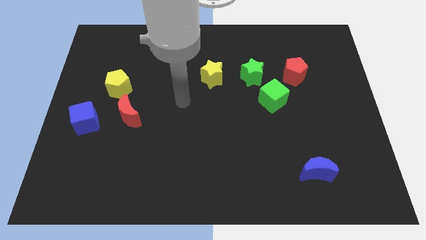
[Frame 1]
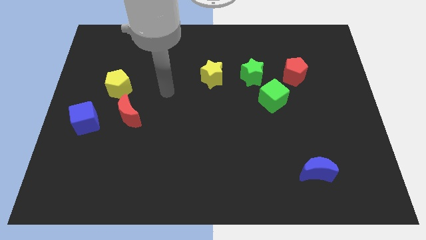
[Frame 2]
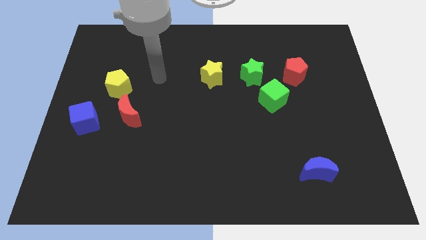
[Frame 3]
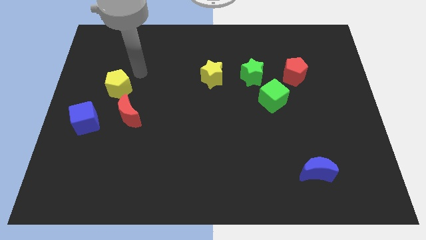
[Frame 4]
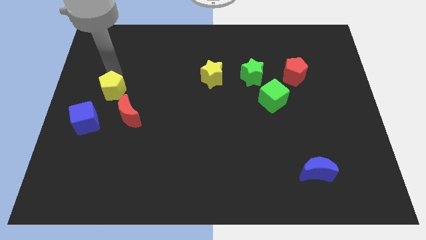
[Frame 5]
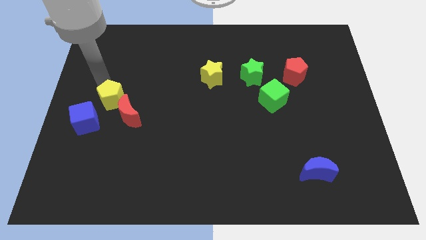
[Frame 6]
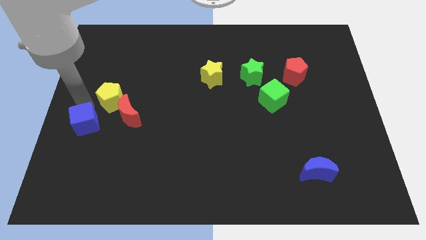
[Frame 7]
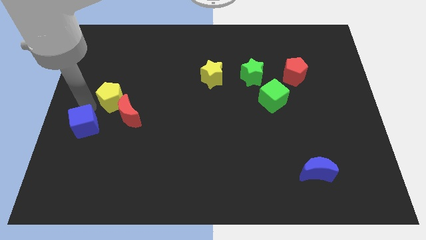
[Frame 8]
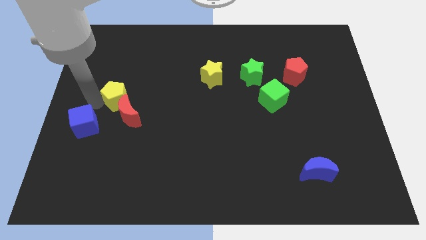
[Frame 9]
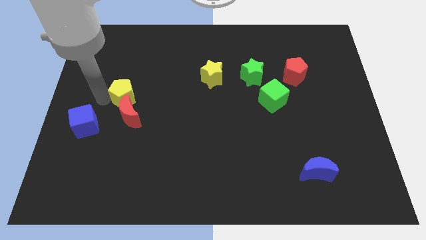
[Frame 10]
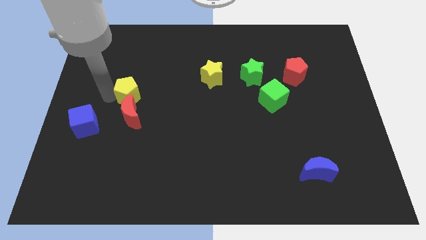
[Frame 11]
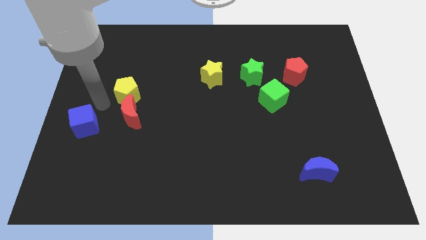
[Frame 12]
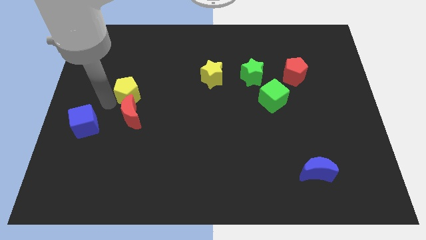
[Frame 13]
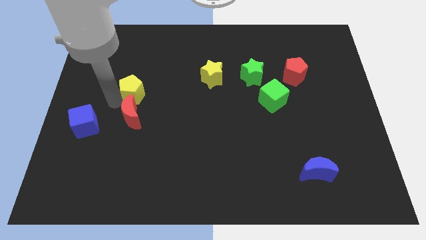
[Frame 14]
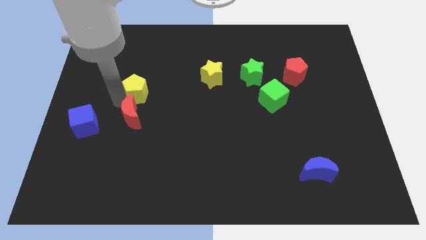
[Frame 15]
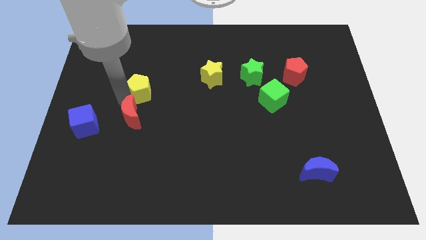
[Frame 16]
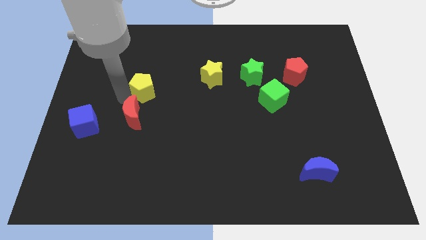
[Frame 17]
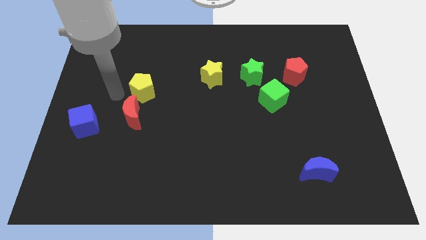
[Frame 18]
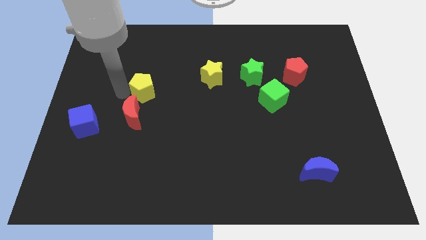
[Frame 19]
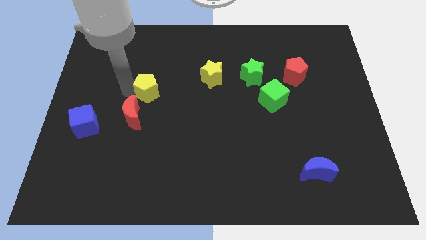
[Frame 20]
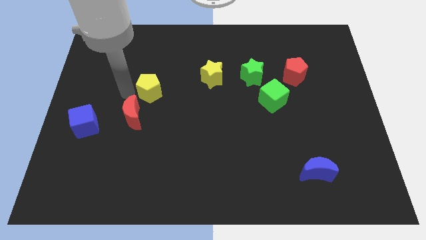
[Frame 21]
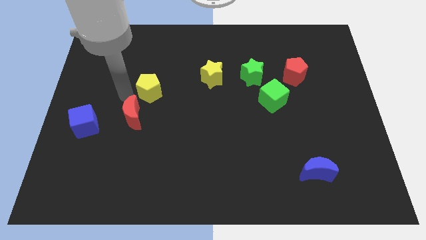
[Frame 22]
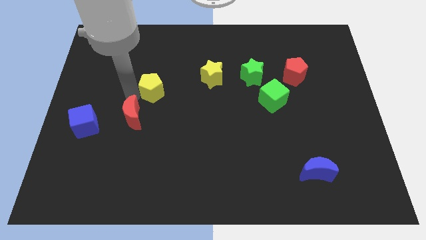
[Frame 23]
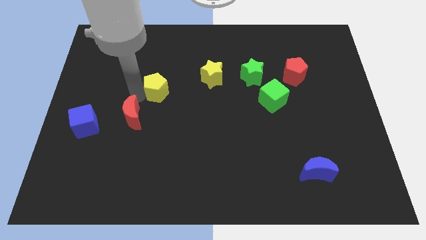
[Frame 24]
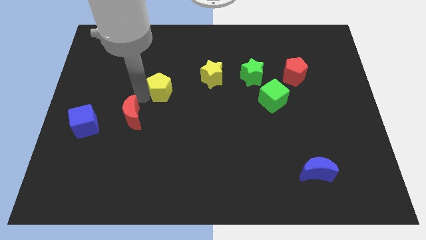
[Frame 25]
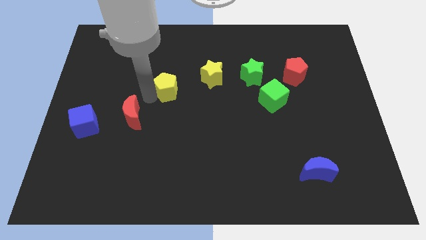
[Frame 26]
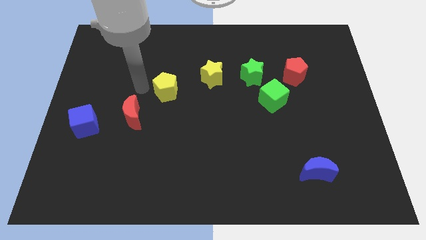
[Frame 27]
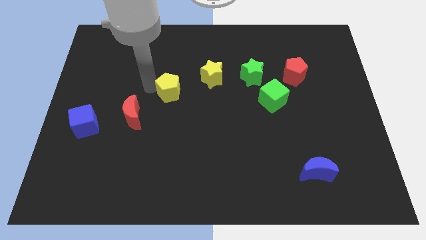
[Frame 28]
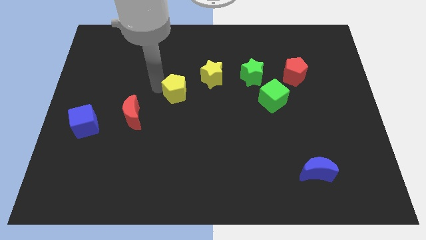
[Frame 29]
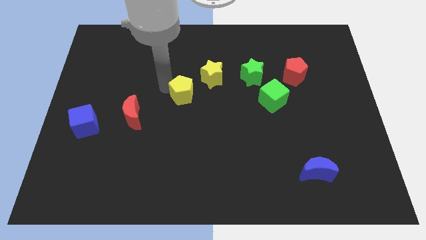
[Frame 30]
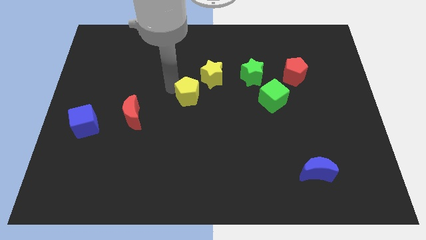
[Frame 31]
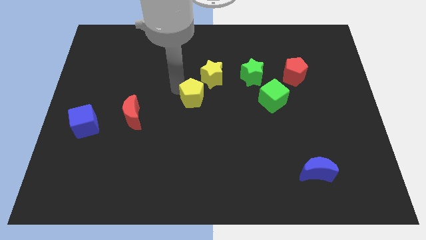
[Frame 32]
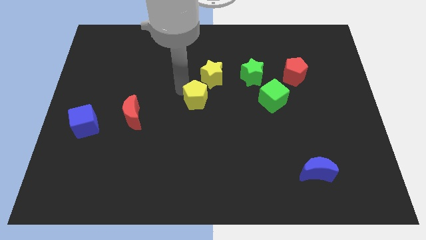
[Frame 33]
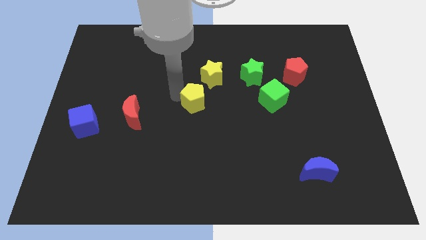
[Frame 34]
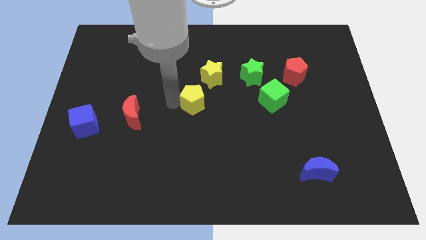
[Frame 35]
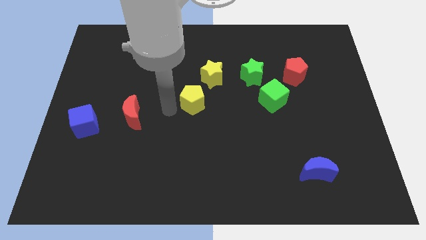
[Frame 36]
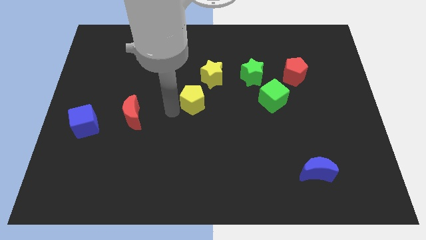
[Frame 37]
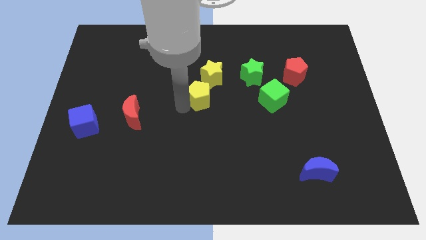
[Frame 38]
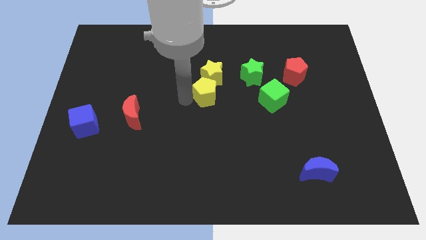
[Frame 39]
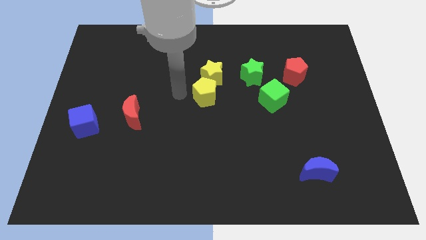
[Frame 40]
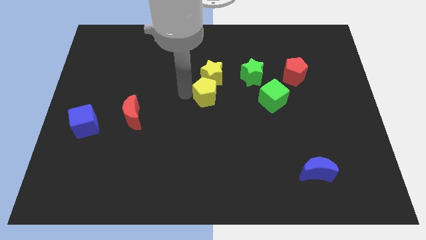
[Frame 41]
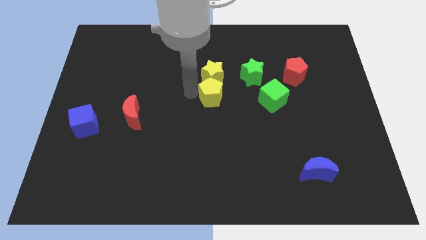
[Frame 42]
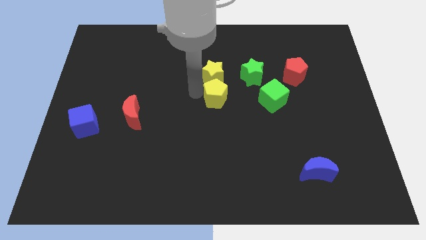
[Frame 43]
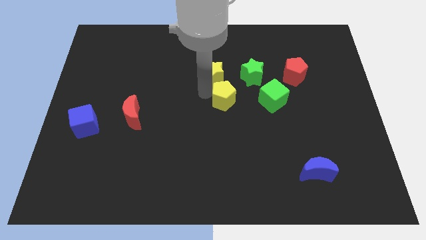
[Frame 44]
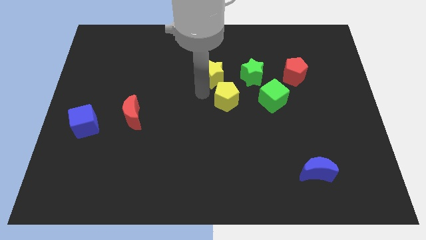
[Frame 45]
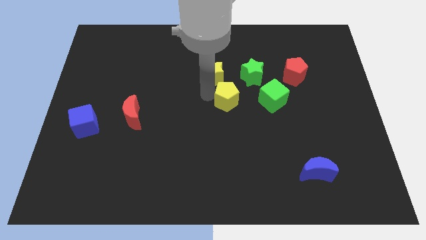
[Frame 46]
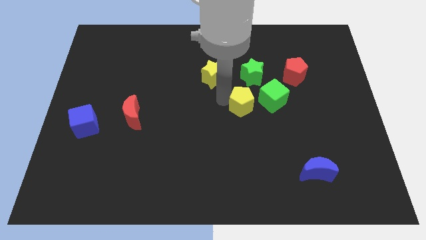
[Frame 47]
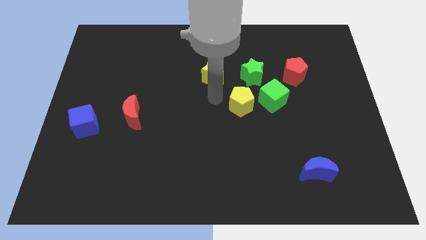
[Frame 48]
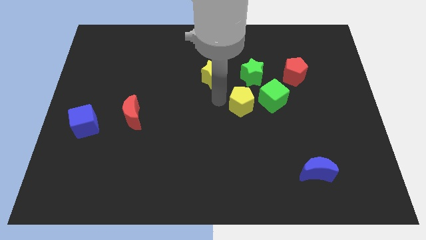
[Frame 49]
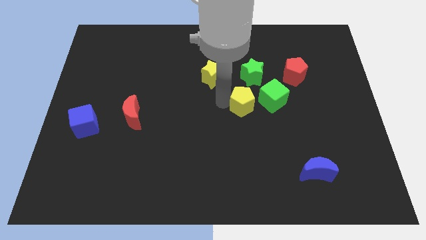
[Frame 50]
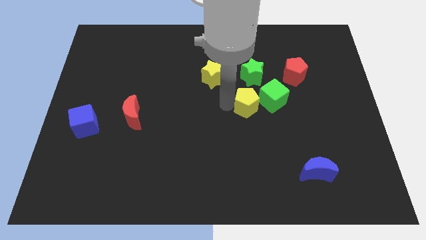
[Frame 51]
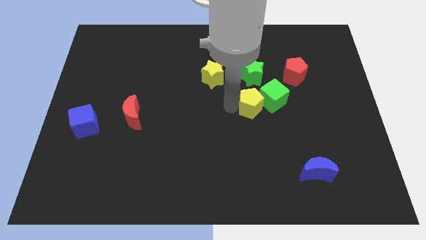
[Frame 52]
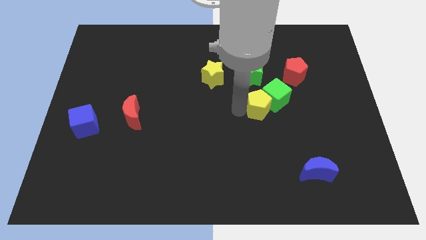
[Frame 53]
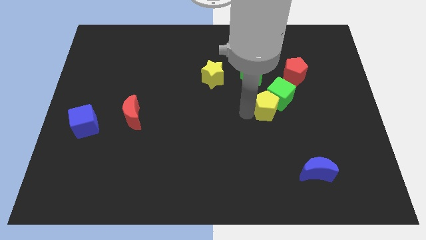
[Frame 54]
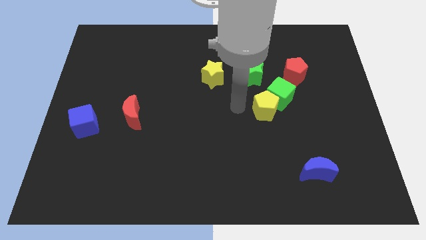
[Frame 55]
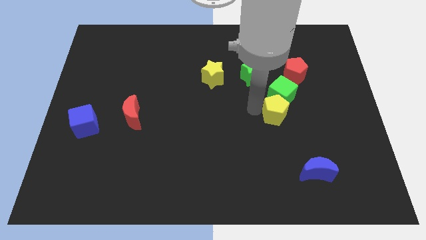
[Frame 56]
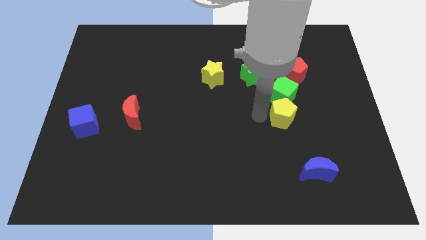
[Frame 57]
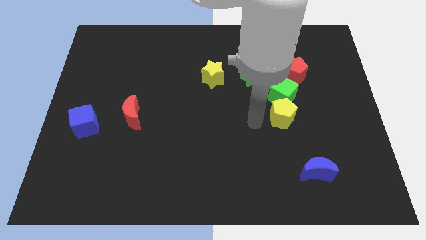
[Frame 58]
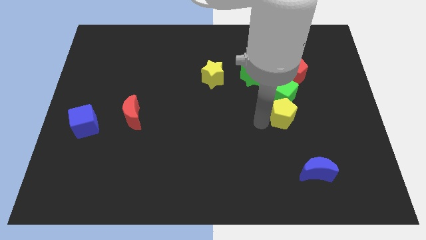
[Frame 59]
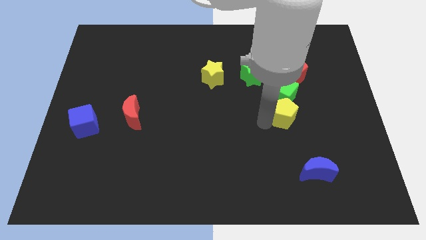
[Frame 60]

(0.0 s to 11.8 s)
slide the yellow pentagon diagonally down and to the right of the green cube

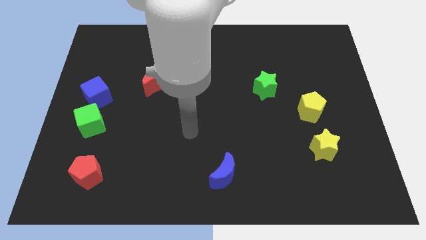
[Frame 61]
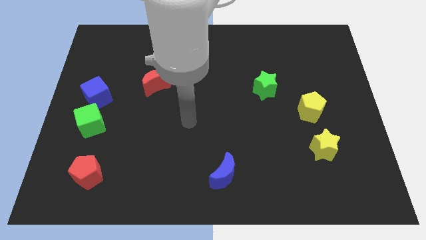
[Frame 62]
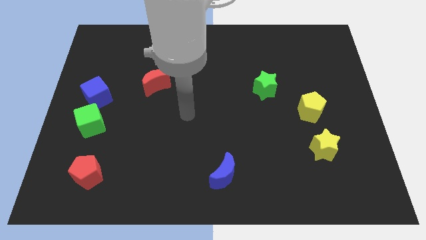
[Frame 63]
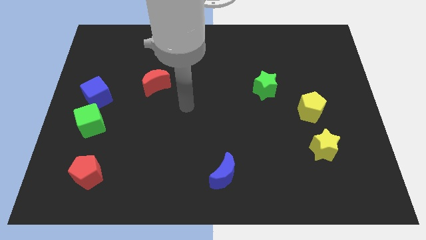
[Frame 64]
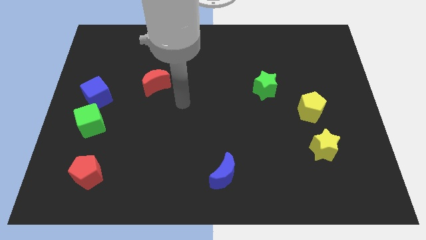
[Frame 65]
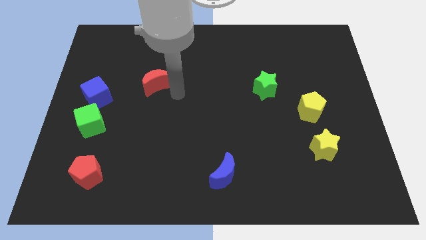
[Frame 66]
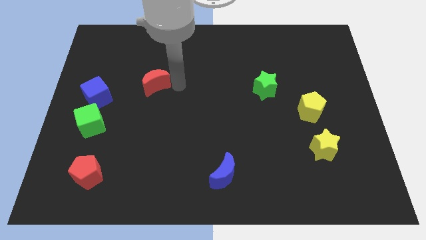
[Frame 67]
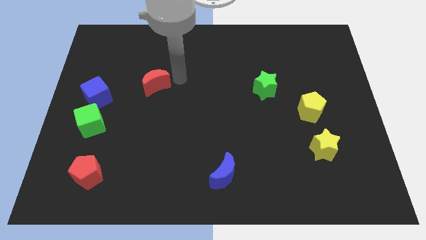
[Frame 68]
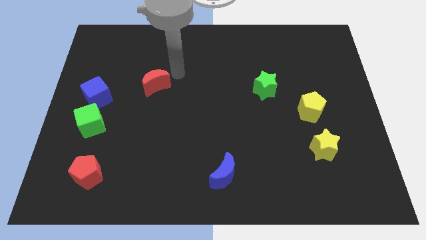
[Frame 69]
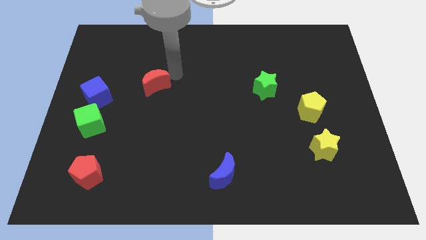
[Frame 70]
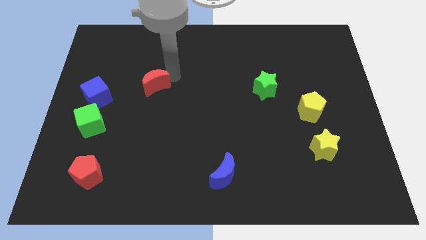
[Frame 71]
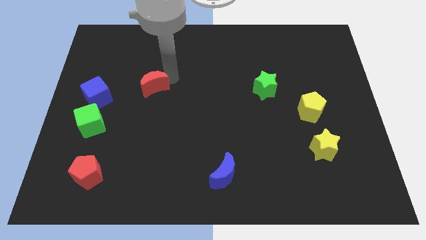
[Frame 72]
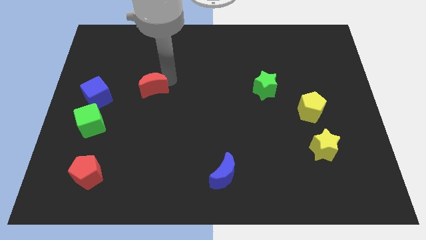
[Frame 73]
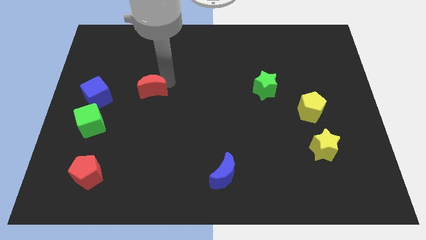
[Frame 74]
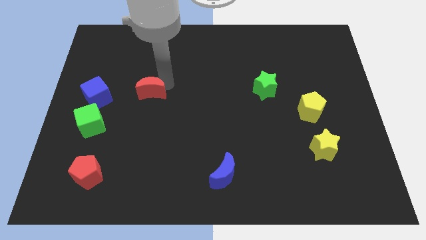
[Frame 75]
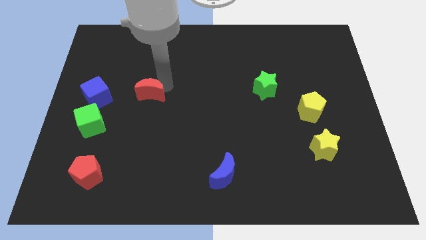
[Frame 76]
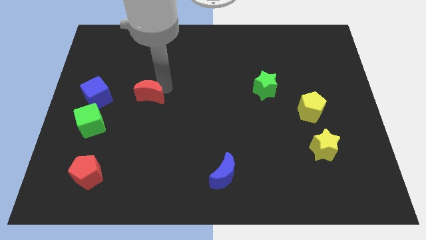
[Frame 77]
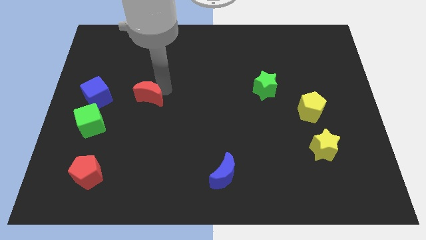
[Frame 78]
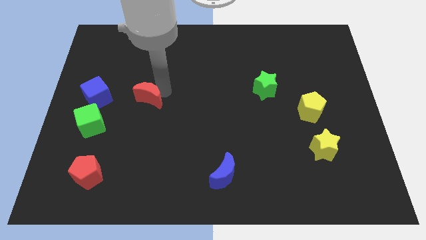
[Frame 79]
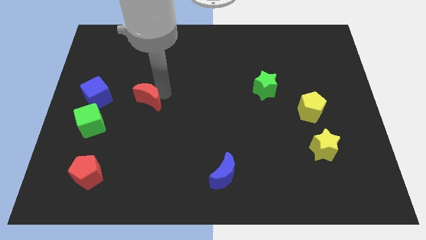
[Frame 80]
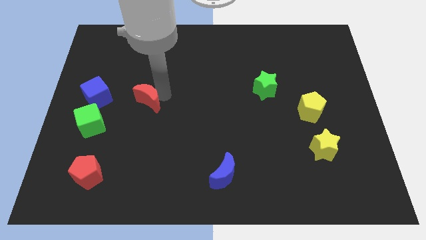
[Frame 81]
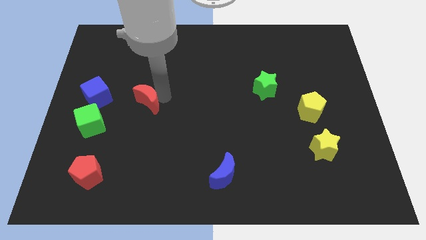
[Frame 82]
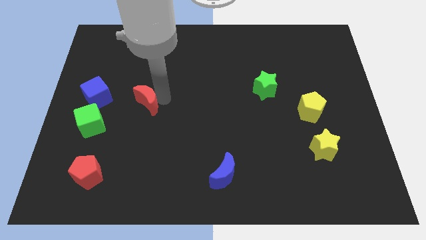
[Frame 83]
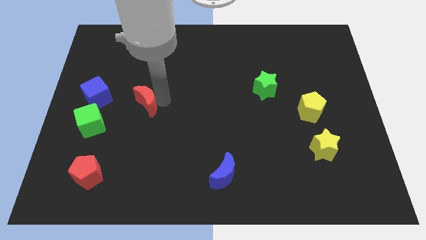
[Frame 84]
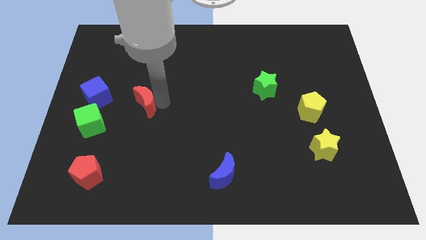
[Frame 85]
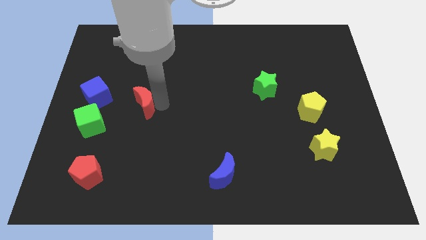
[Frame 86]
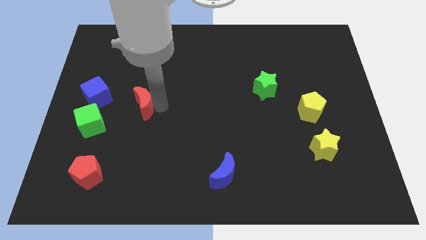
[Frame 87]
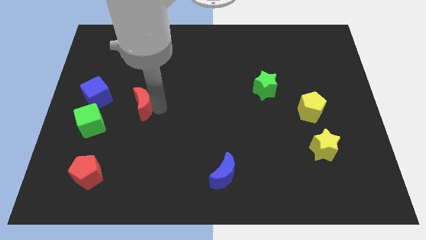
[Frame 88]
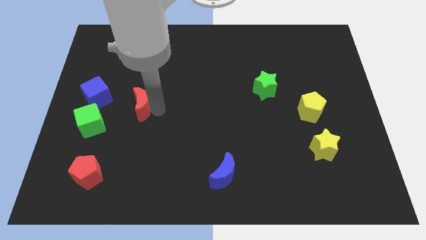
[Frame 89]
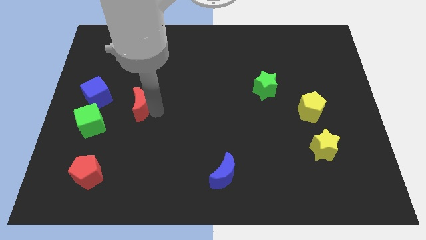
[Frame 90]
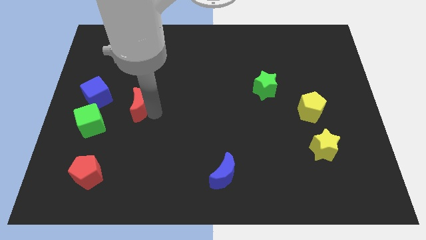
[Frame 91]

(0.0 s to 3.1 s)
push the red moon diagonally up and to the right of the green cube
